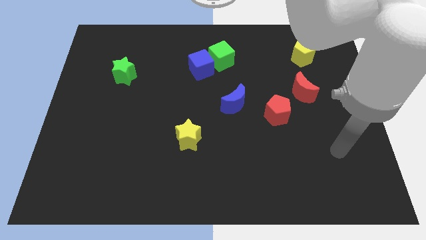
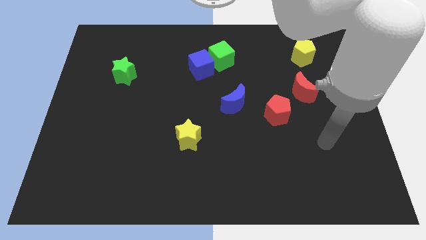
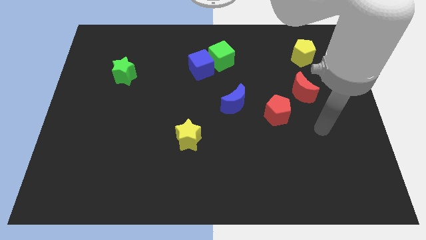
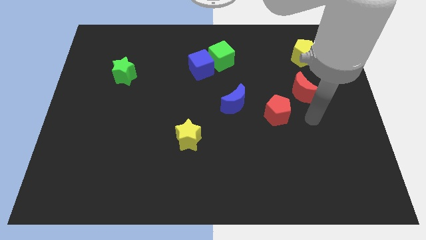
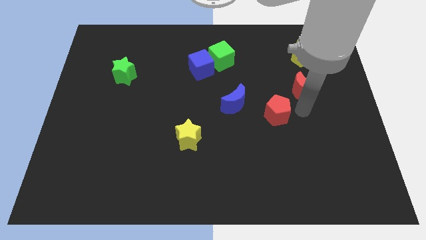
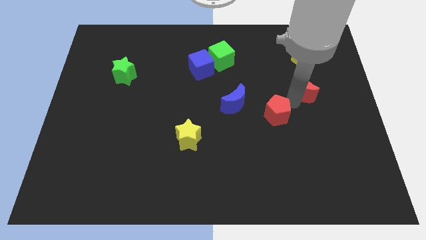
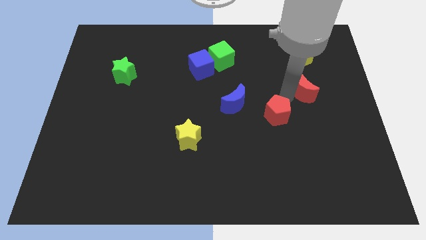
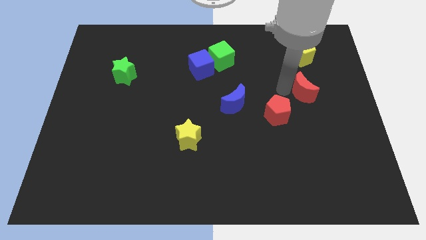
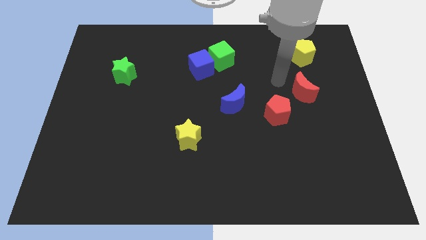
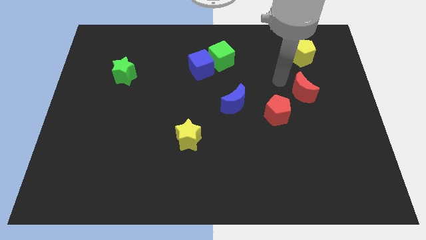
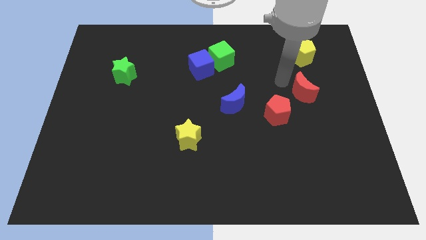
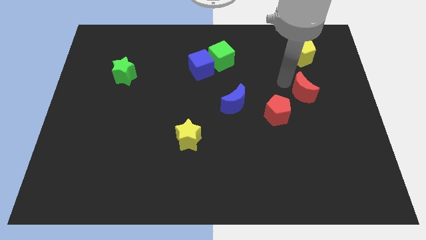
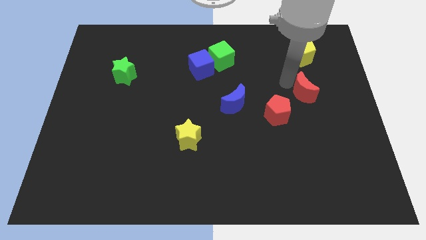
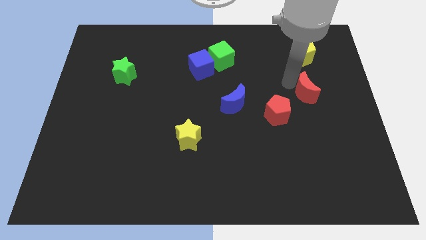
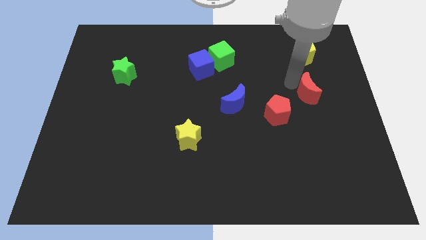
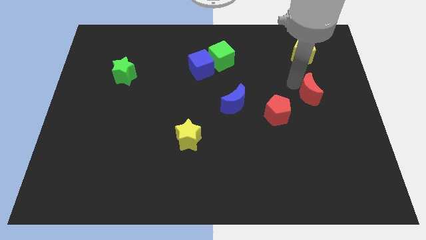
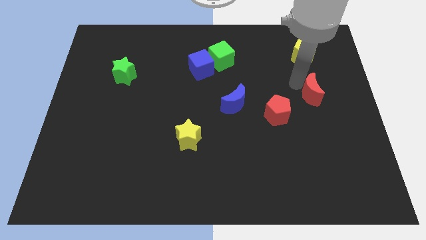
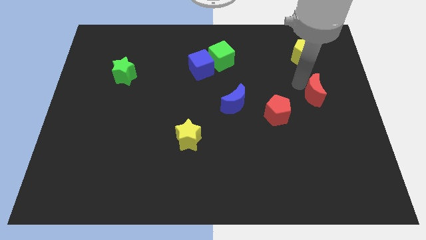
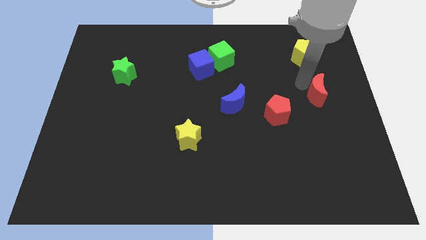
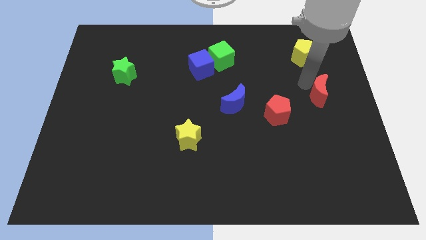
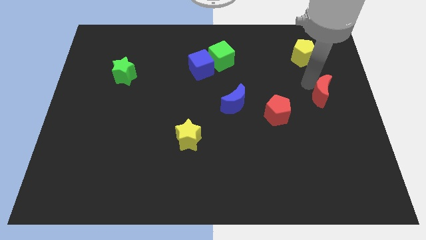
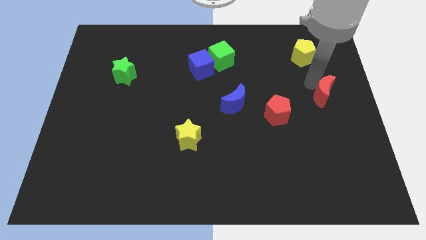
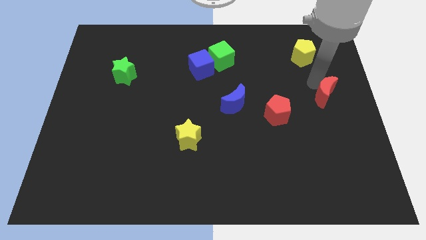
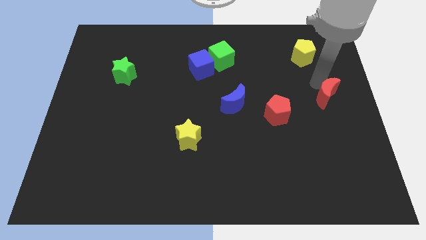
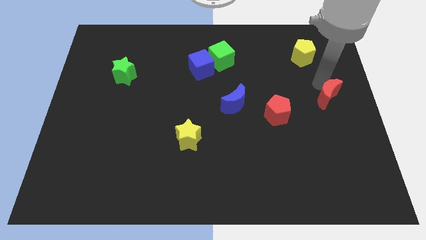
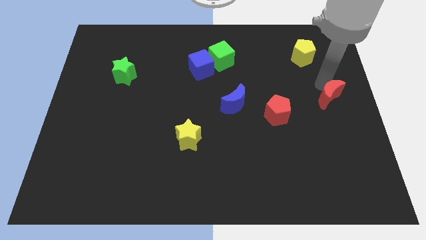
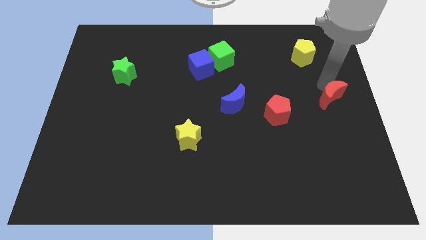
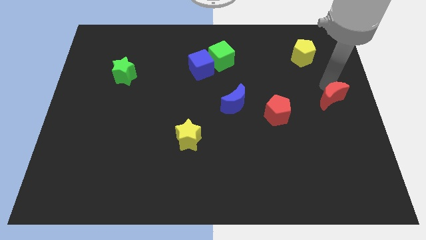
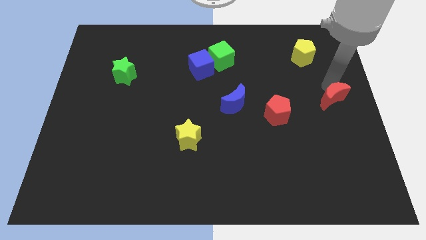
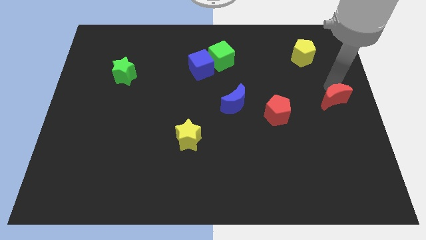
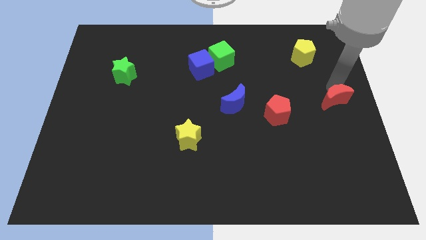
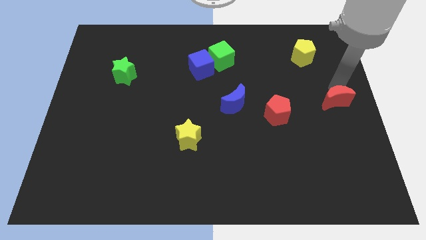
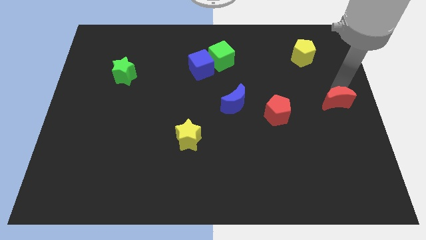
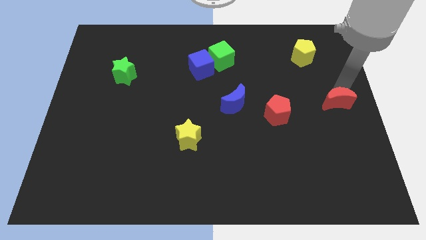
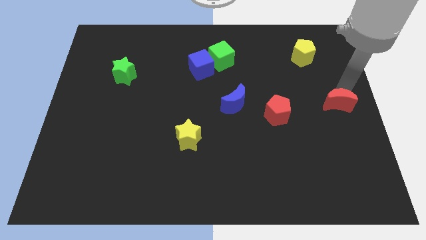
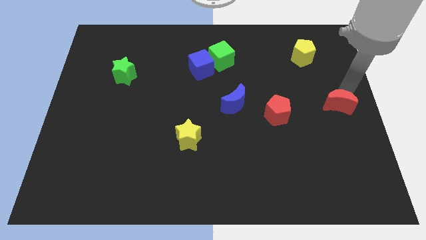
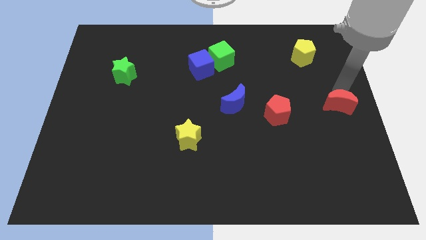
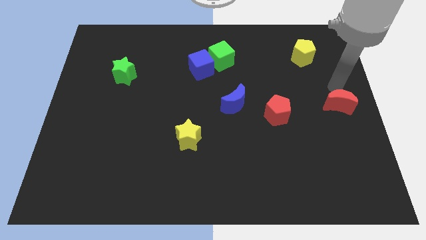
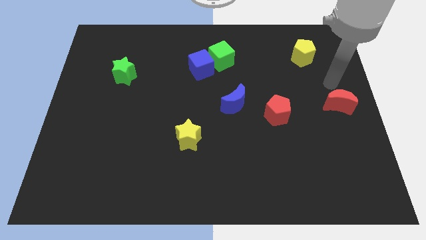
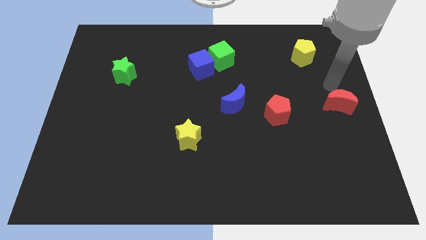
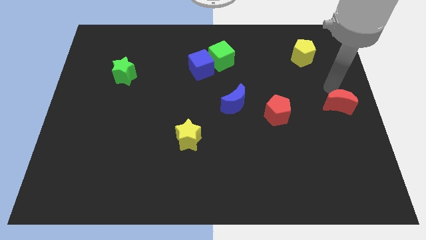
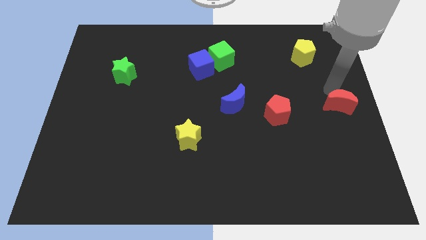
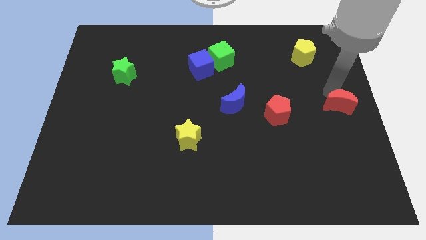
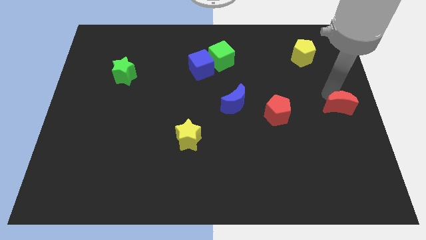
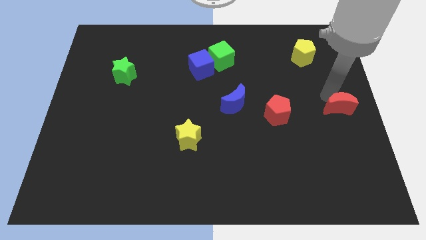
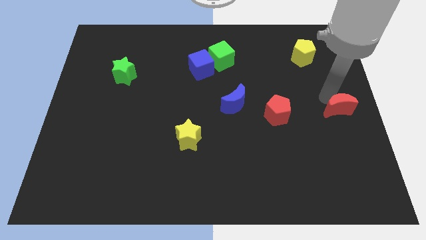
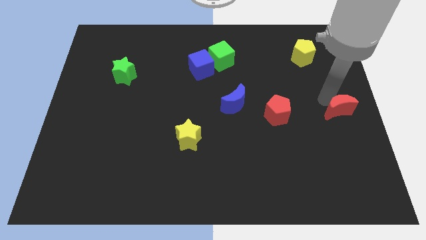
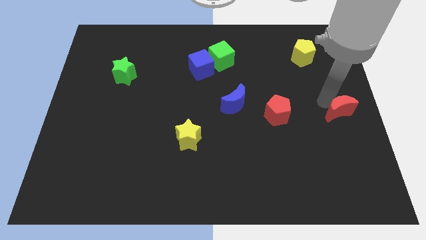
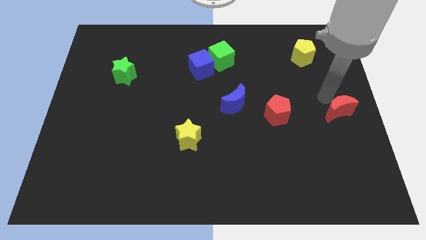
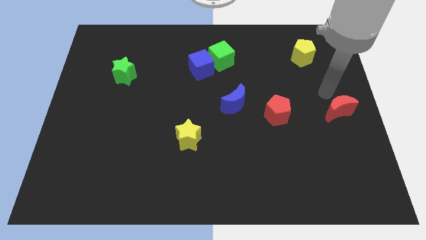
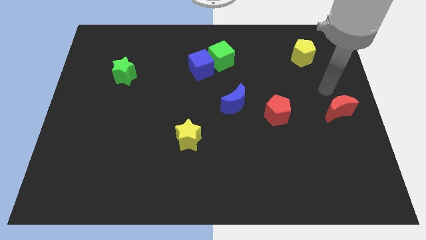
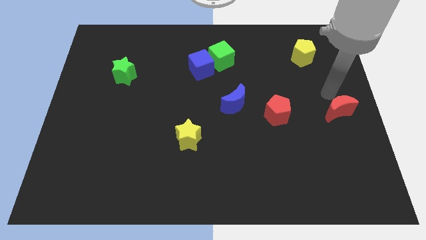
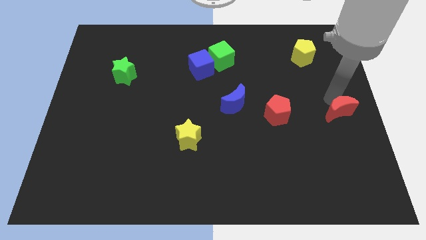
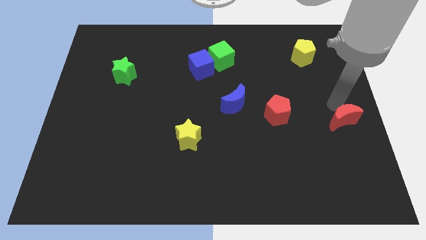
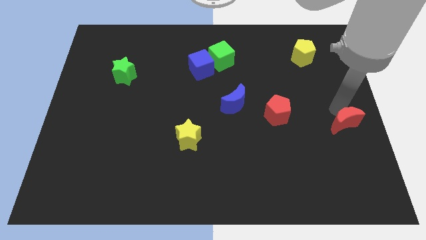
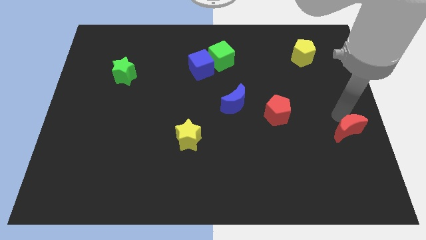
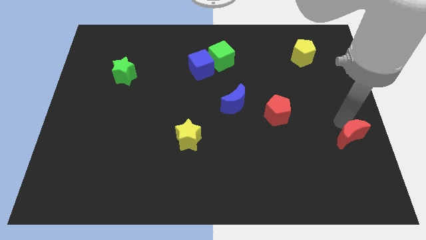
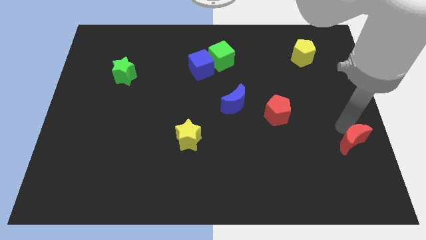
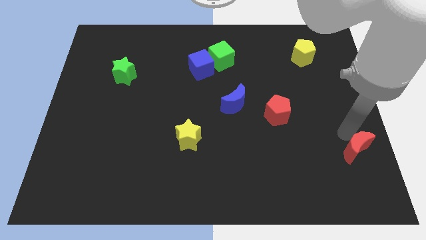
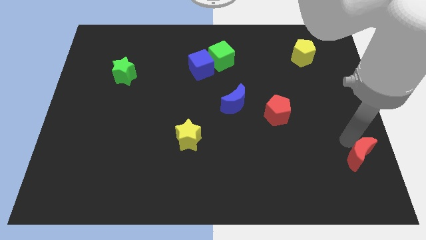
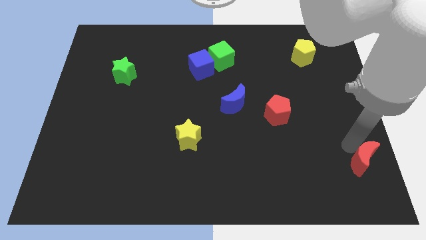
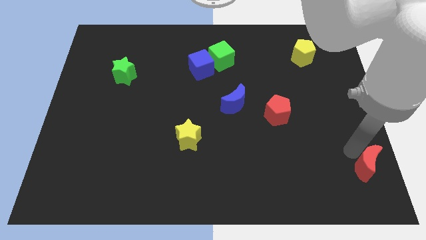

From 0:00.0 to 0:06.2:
move the red moon to the bottom right

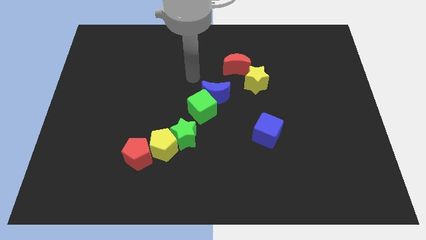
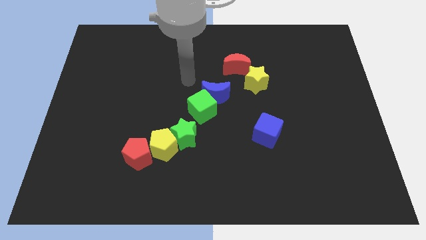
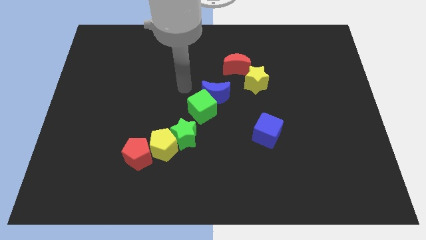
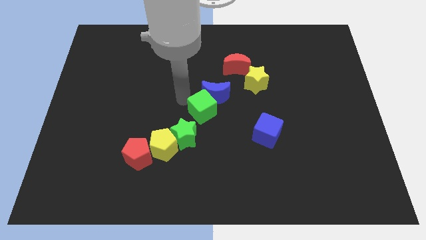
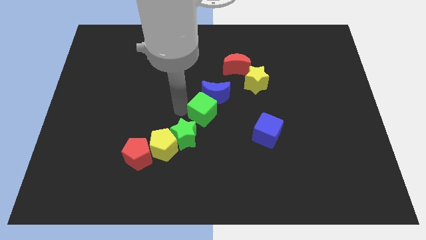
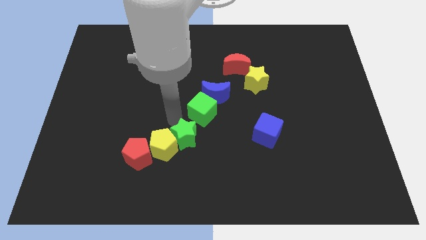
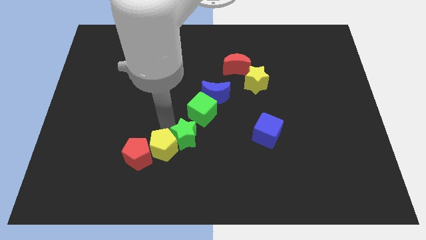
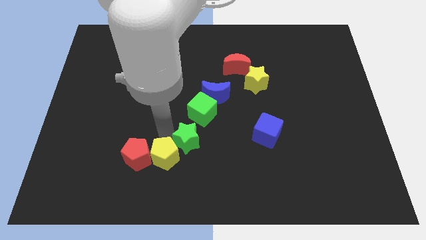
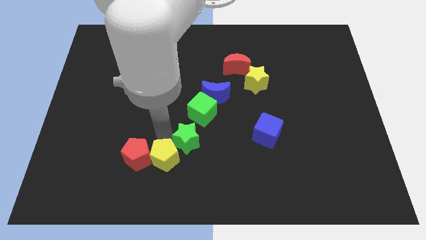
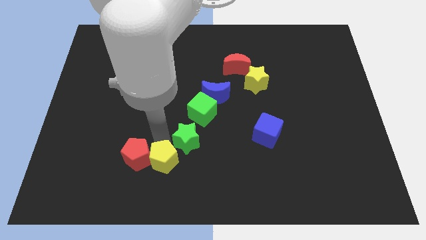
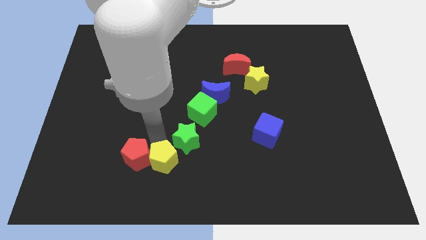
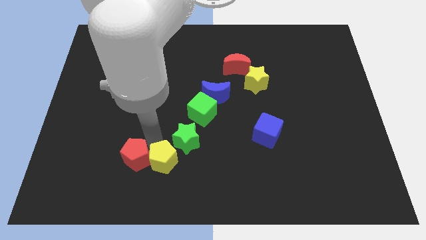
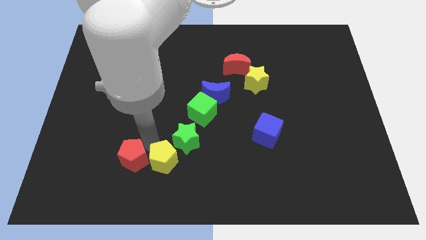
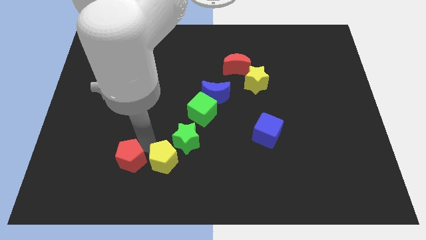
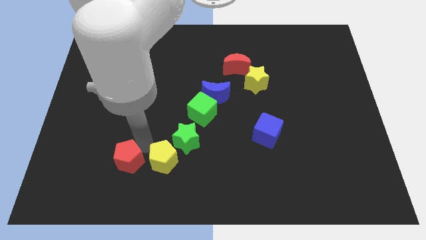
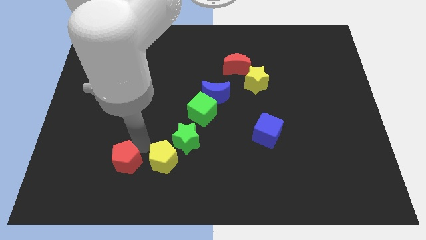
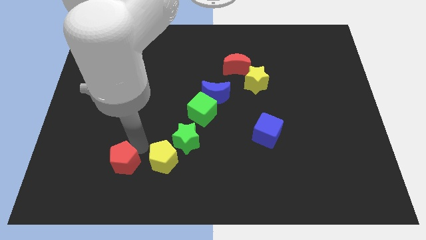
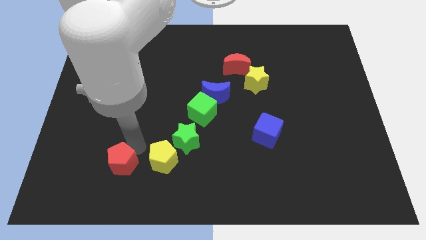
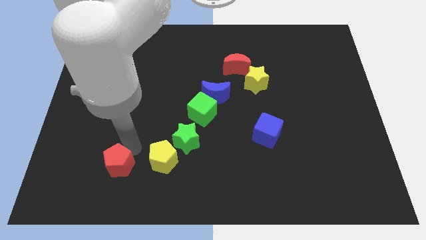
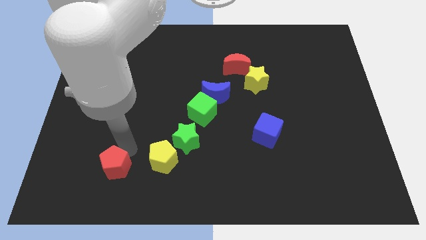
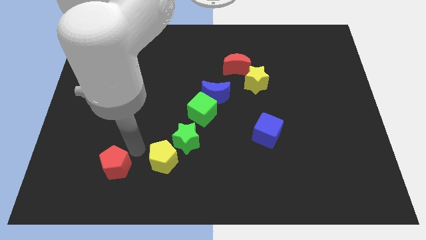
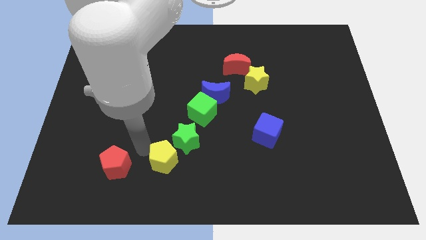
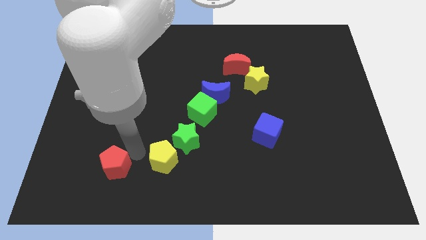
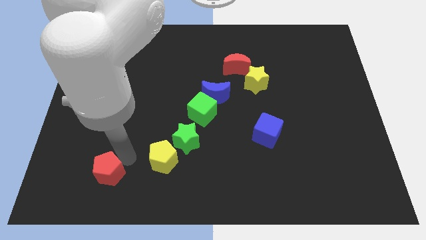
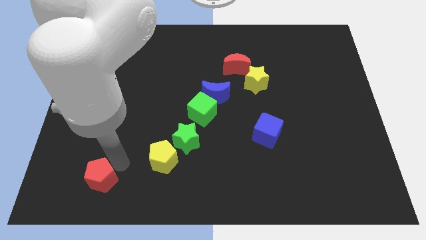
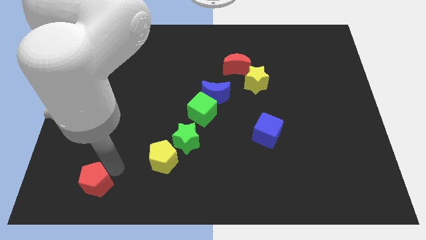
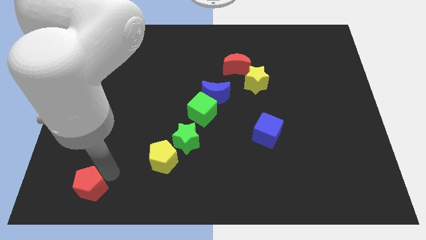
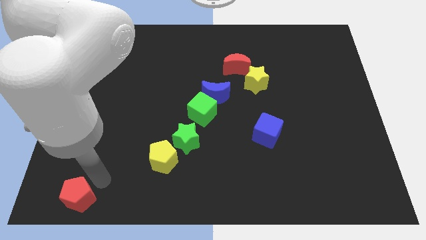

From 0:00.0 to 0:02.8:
slide the red pentagon to the bottom left corner
